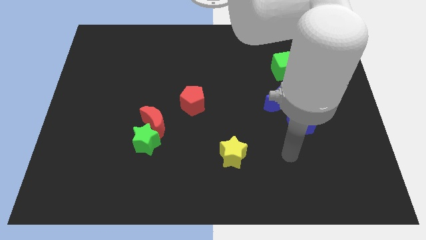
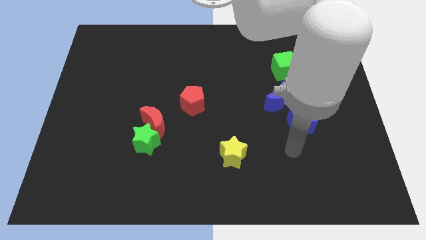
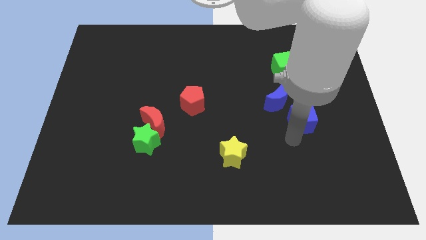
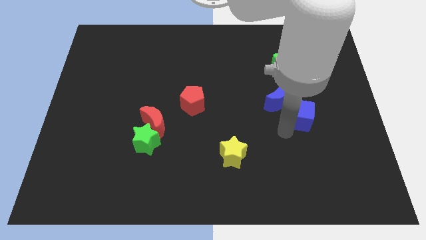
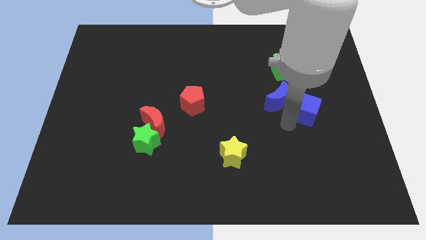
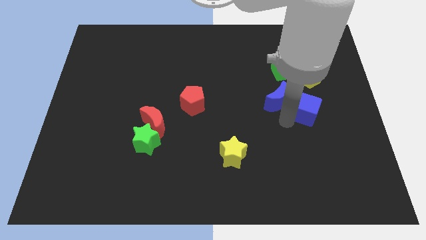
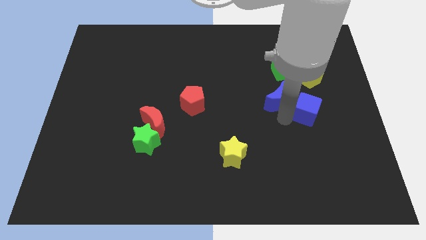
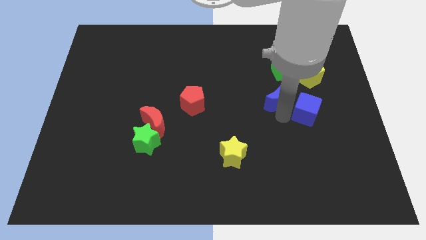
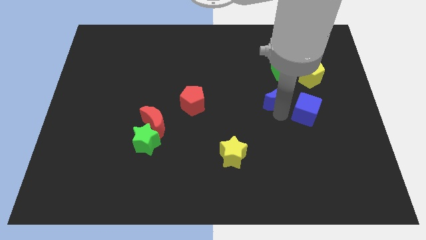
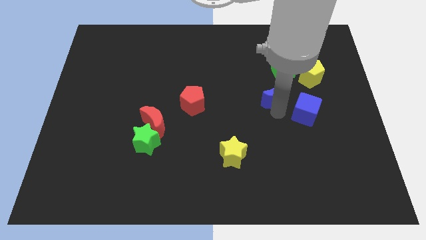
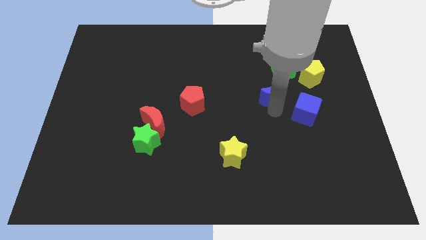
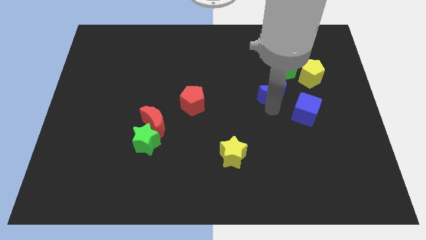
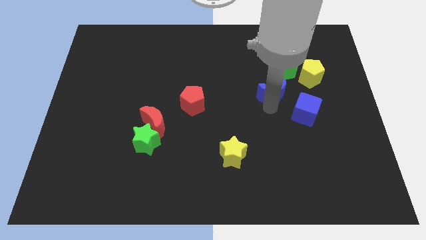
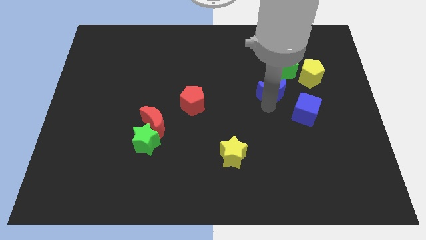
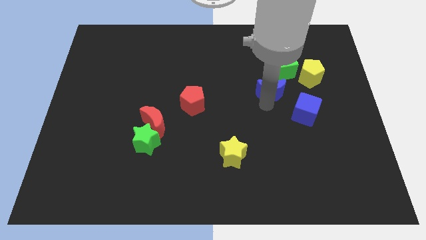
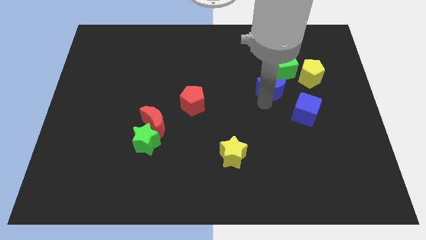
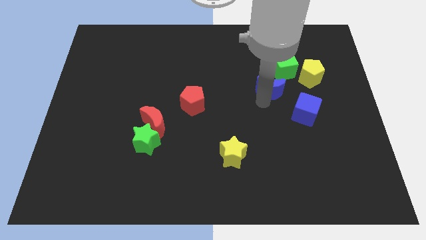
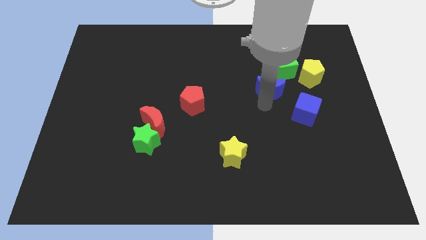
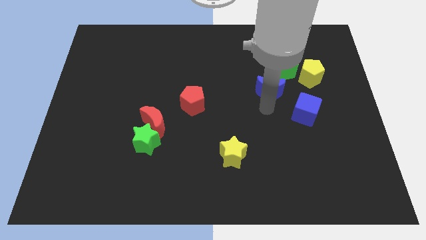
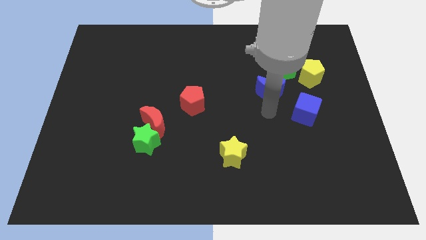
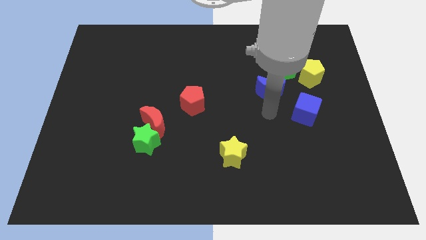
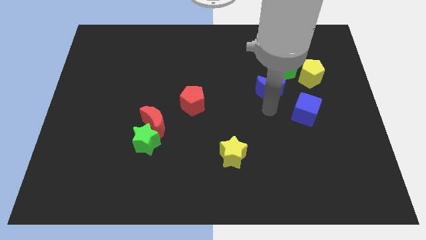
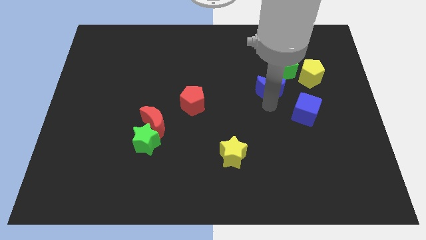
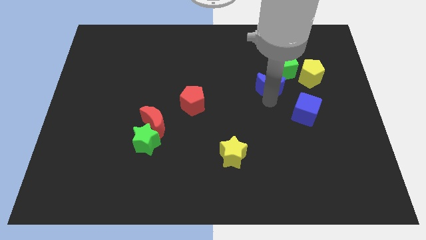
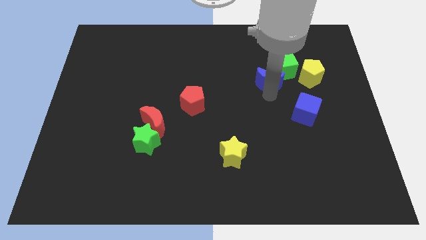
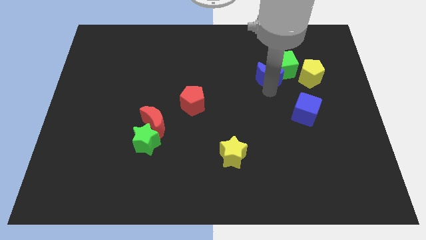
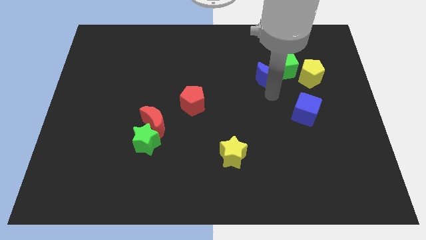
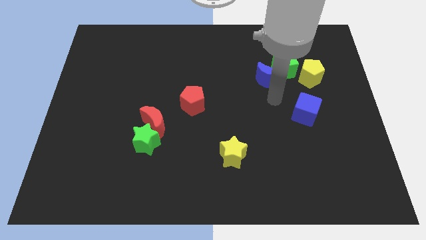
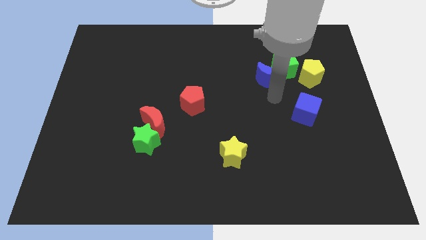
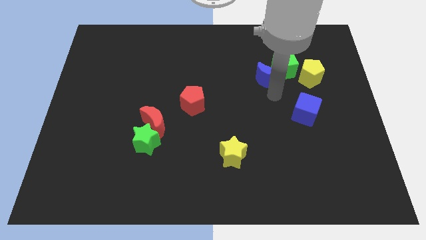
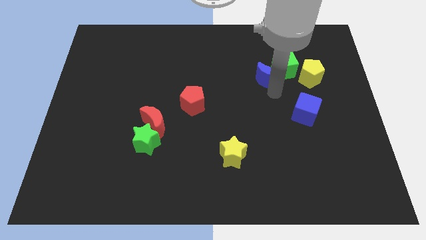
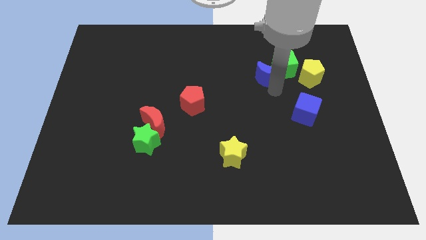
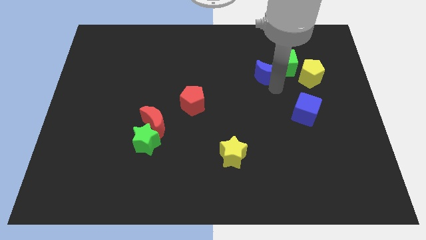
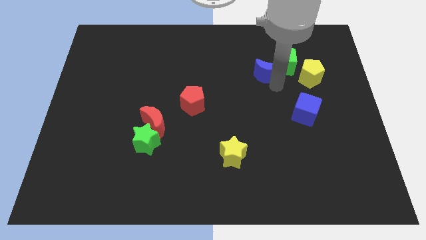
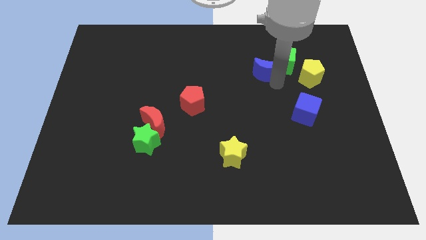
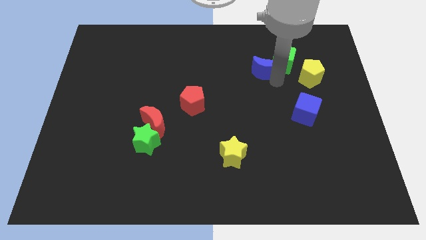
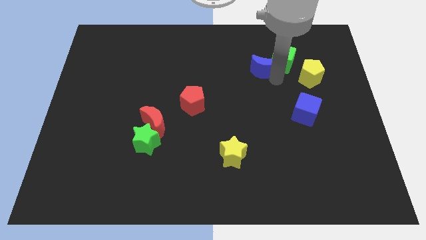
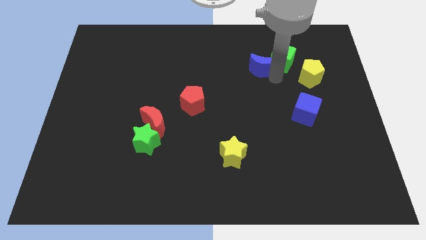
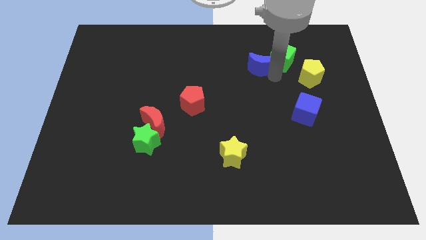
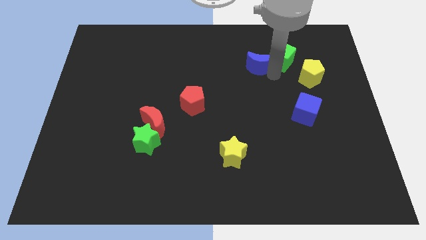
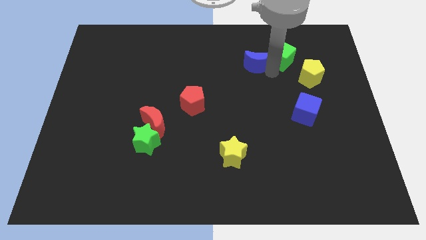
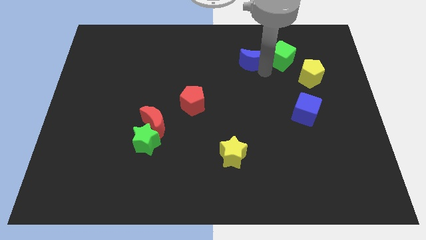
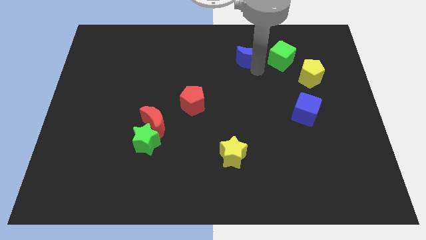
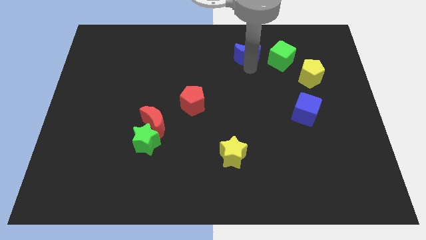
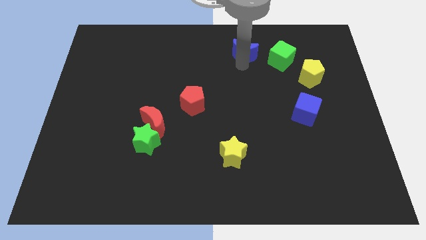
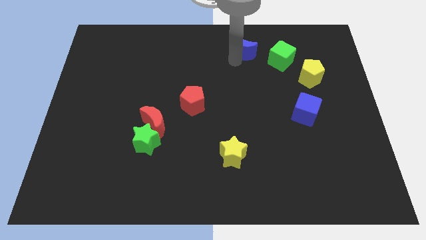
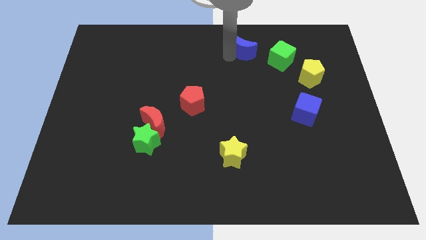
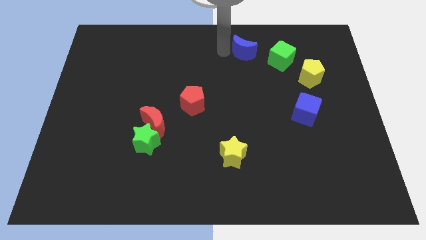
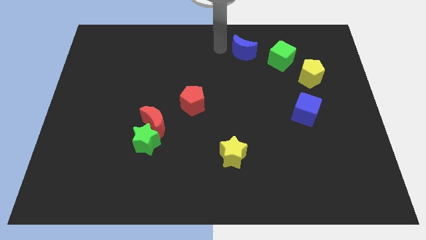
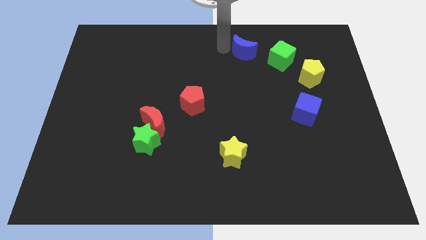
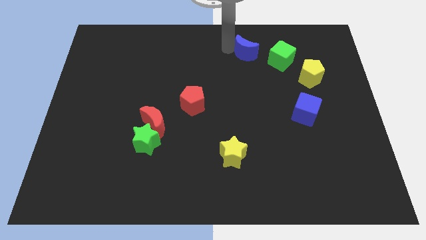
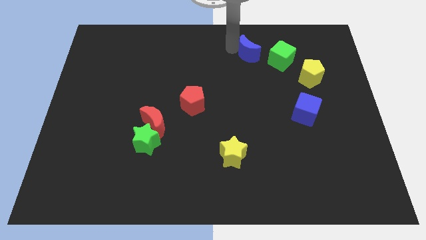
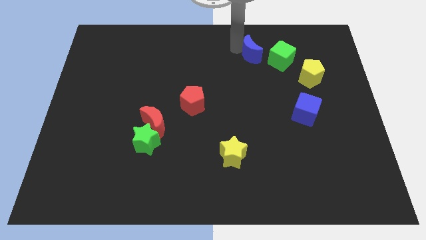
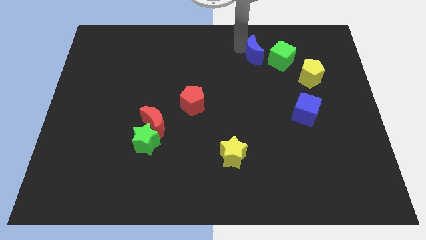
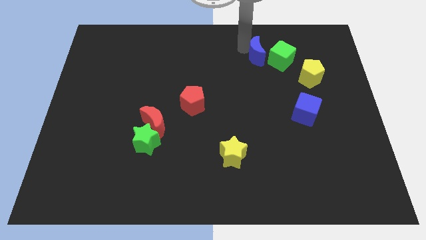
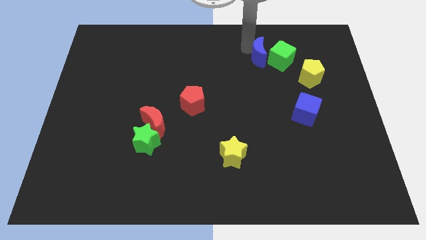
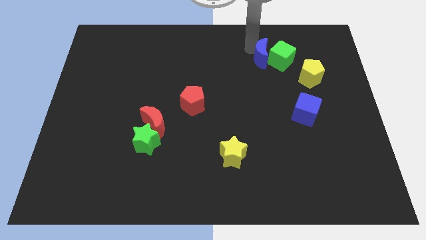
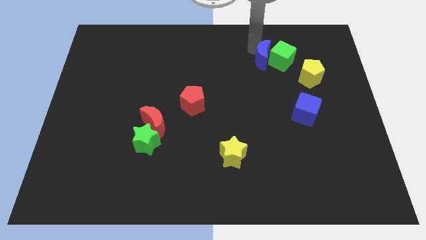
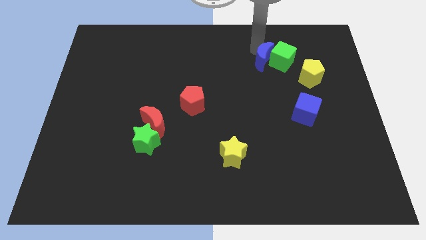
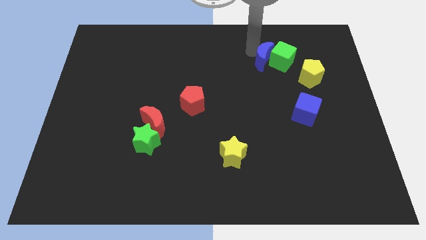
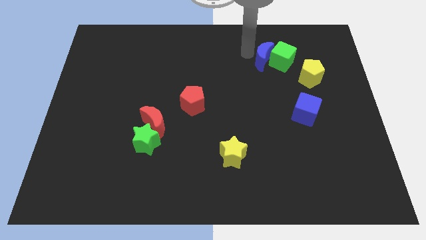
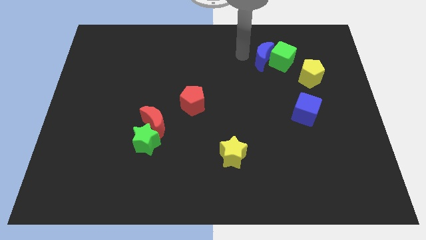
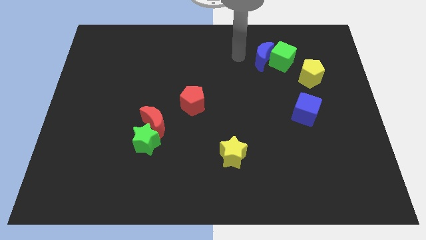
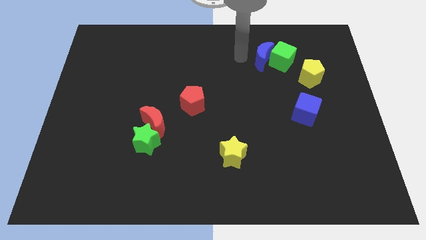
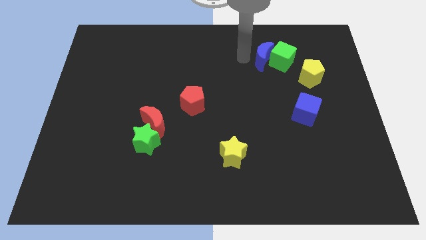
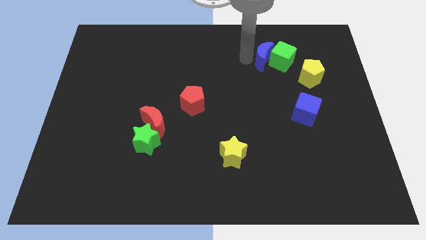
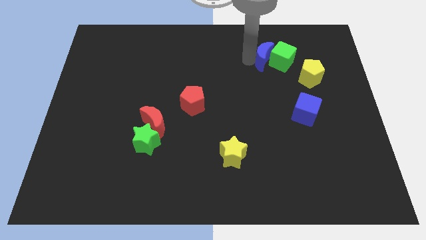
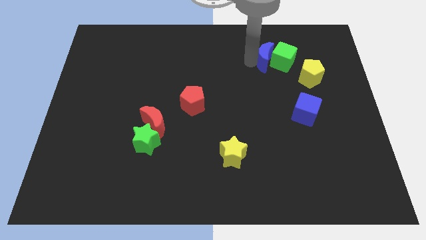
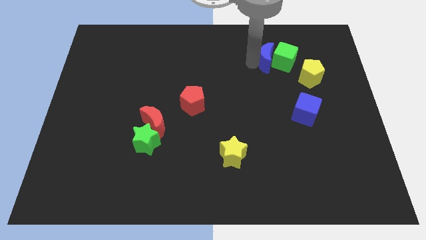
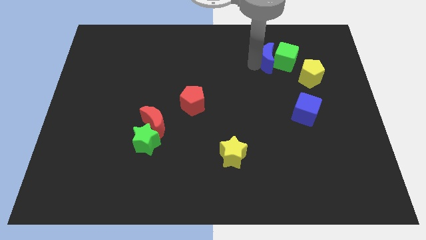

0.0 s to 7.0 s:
slide the blue moon to the top left of the yellow pentagon
